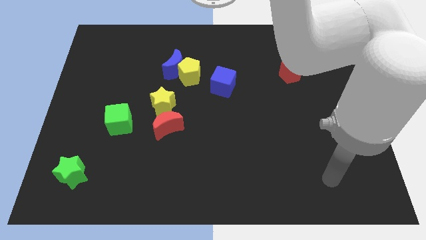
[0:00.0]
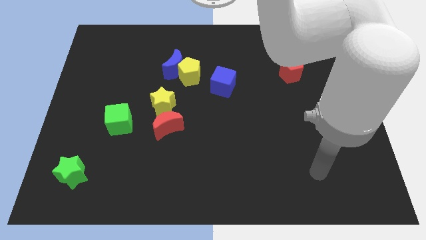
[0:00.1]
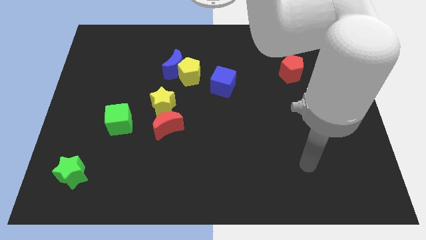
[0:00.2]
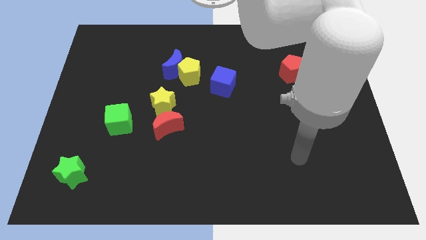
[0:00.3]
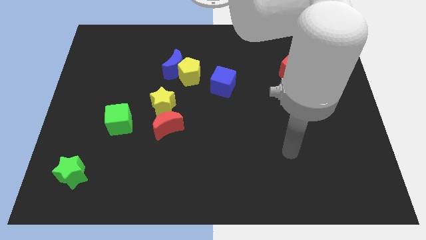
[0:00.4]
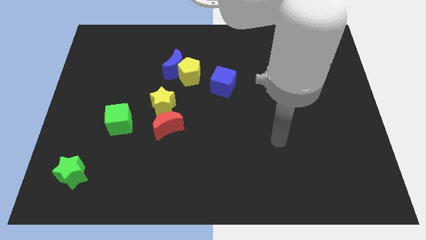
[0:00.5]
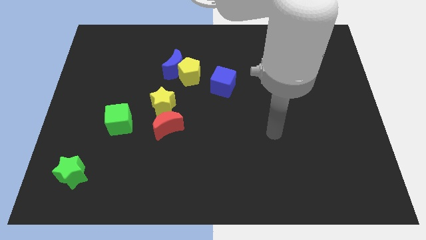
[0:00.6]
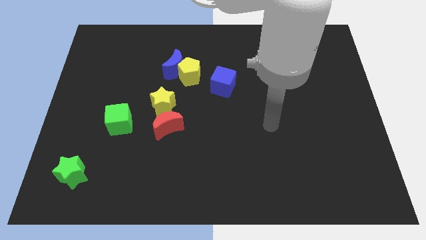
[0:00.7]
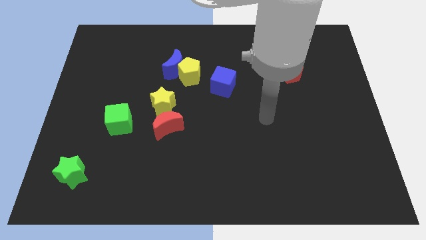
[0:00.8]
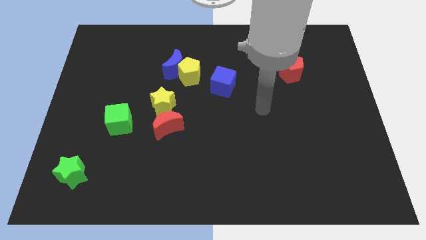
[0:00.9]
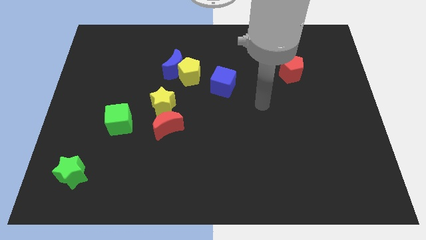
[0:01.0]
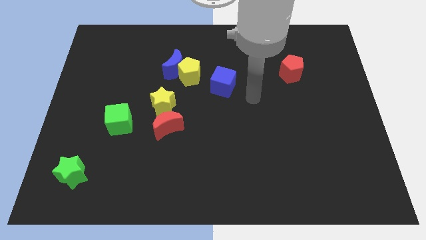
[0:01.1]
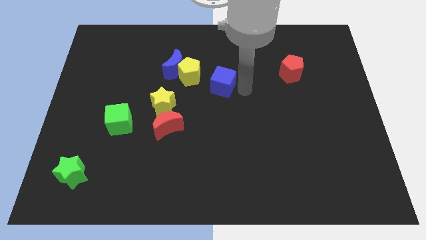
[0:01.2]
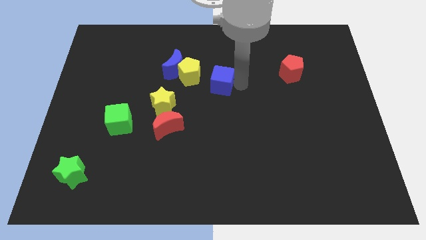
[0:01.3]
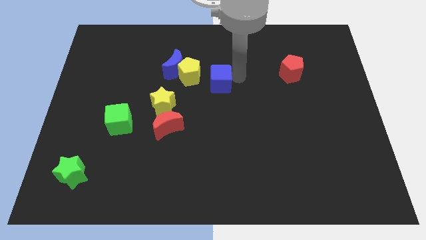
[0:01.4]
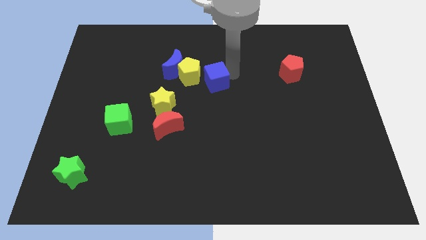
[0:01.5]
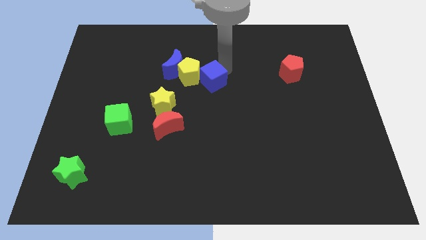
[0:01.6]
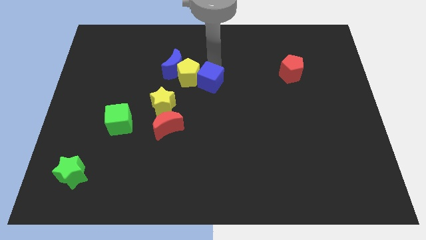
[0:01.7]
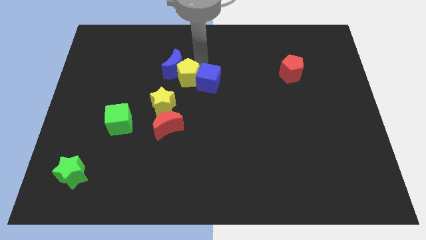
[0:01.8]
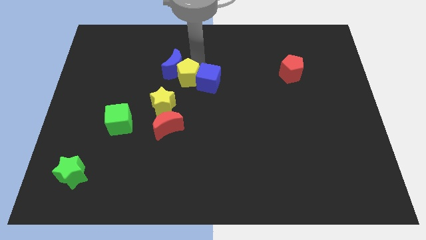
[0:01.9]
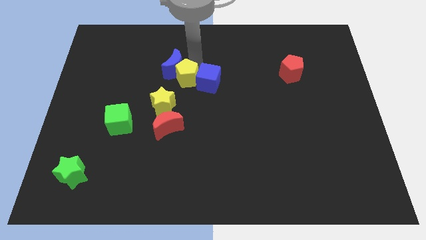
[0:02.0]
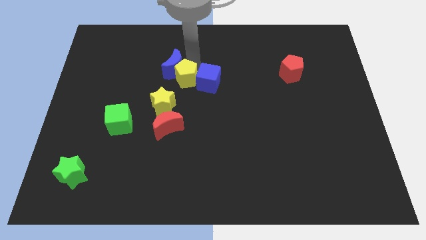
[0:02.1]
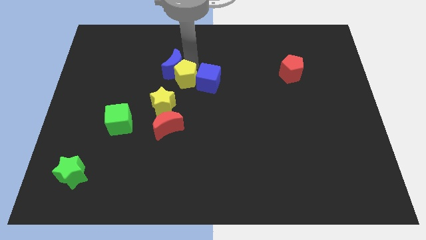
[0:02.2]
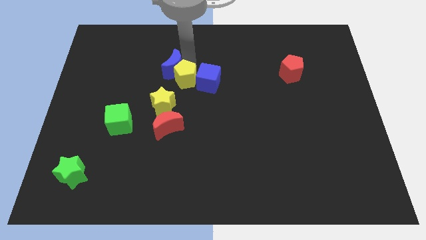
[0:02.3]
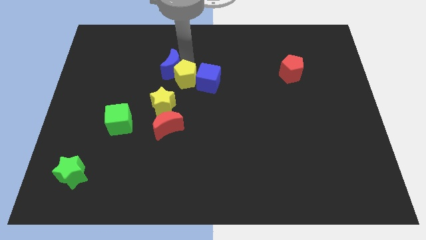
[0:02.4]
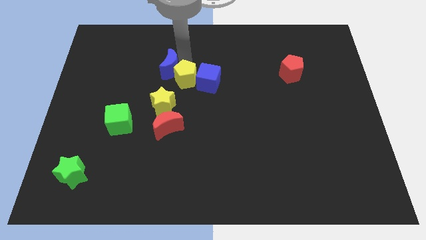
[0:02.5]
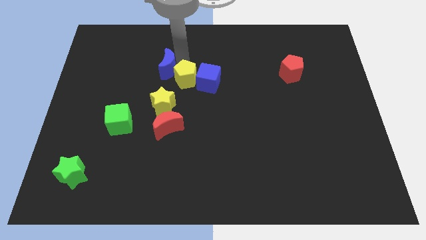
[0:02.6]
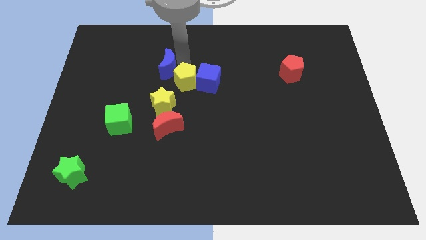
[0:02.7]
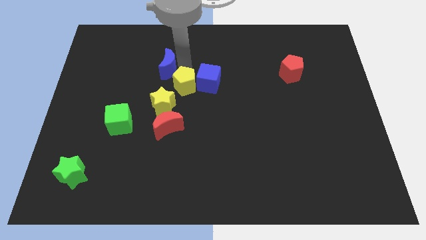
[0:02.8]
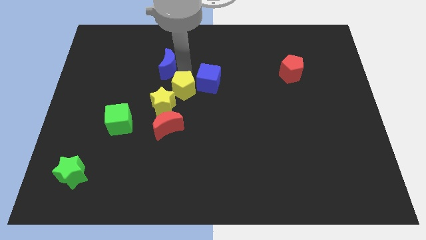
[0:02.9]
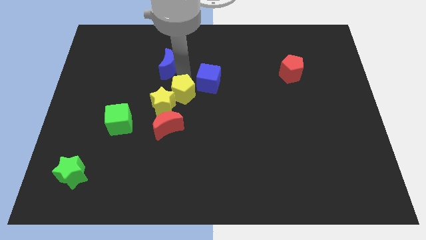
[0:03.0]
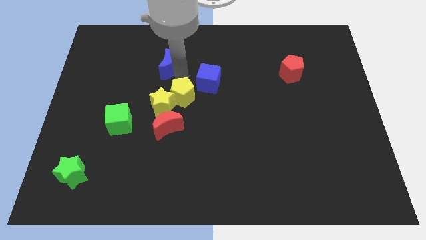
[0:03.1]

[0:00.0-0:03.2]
separate the blue moon from the yellow pentagon

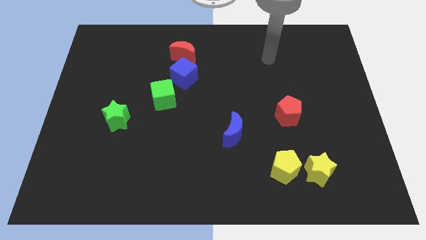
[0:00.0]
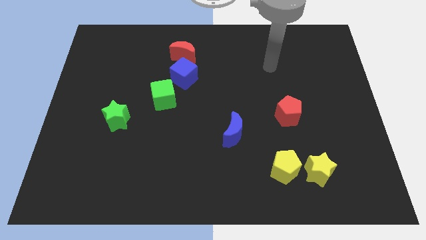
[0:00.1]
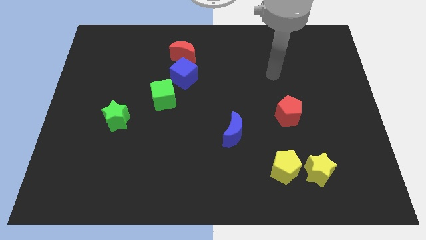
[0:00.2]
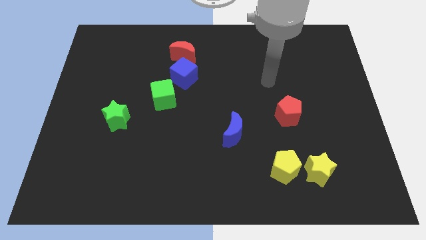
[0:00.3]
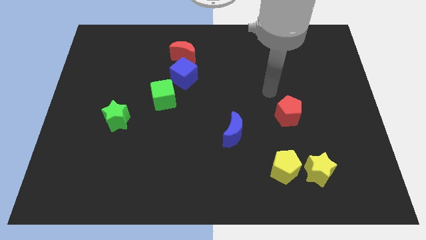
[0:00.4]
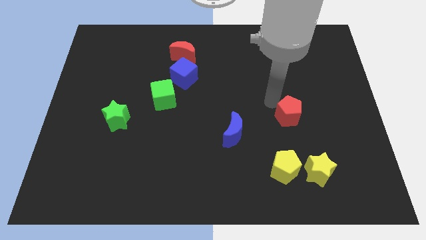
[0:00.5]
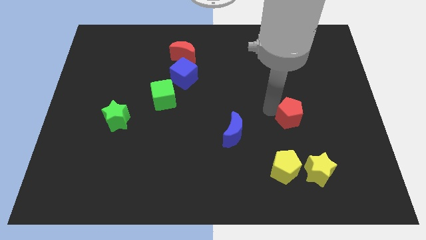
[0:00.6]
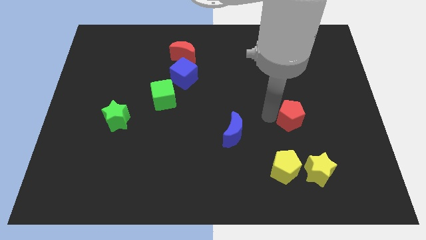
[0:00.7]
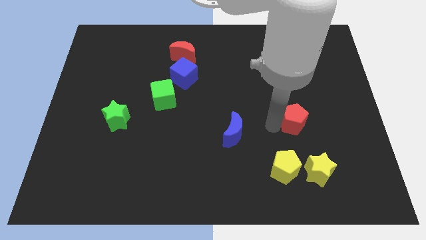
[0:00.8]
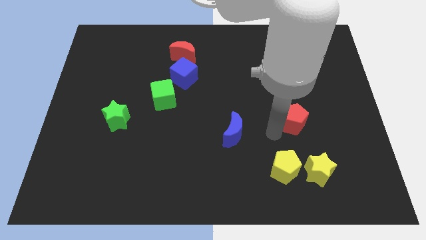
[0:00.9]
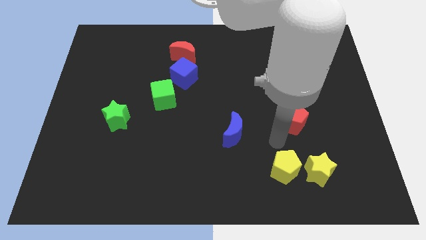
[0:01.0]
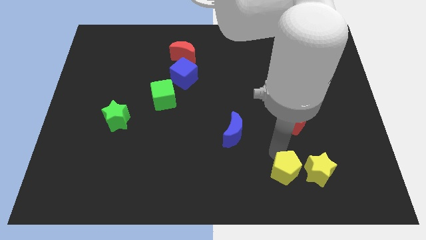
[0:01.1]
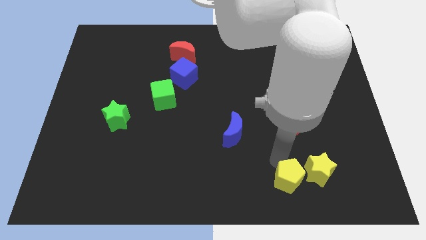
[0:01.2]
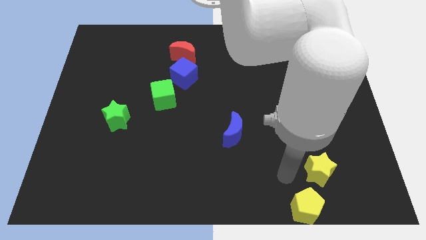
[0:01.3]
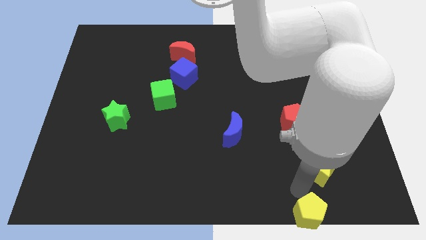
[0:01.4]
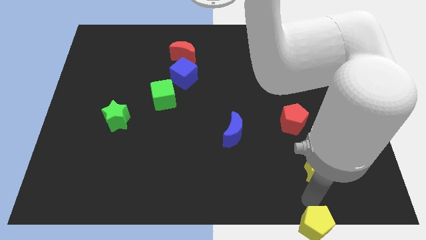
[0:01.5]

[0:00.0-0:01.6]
pull the yellow star apart from the yellow pentagon

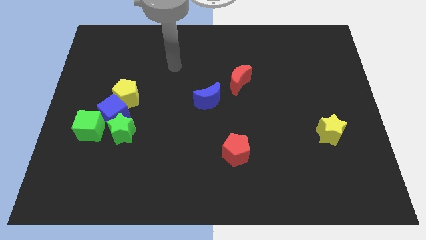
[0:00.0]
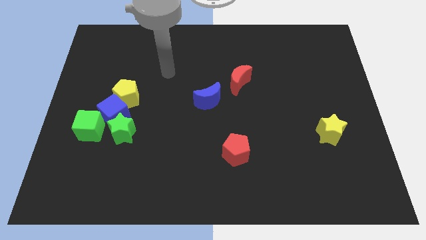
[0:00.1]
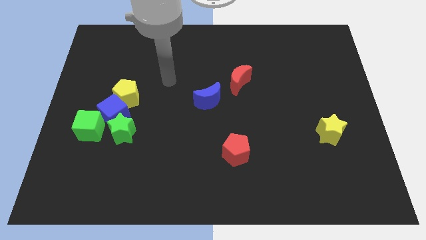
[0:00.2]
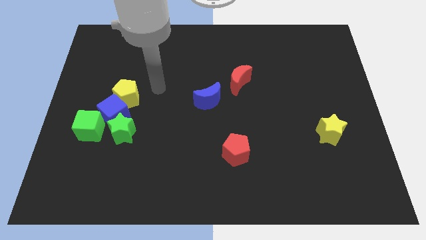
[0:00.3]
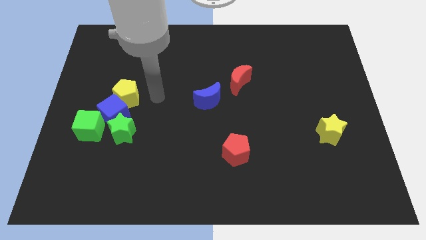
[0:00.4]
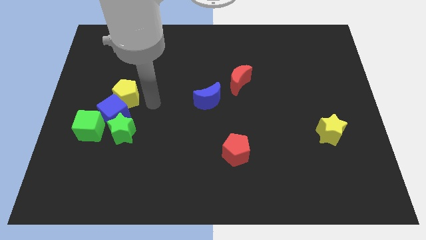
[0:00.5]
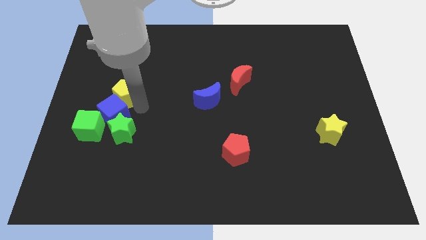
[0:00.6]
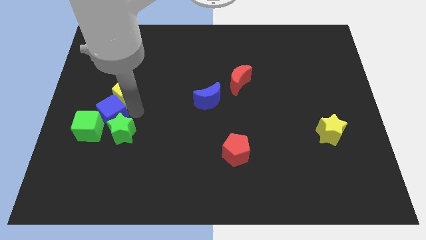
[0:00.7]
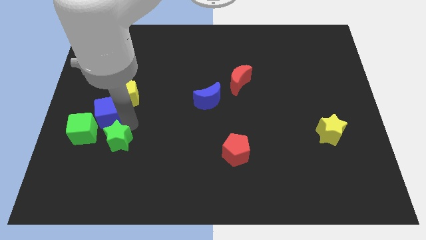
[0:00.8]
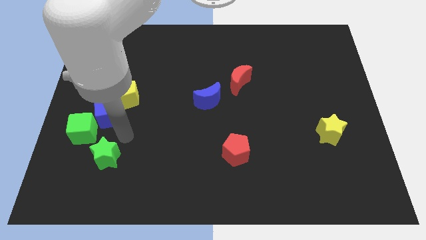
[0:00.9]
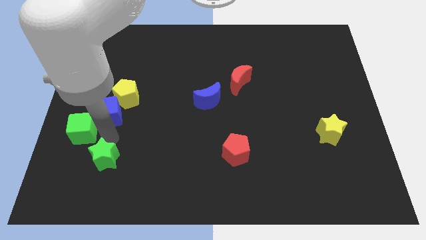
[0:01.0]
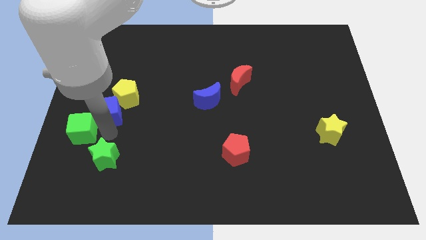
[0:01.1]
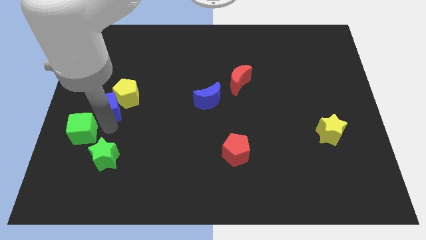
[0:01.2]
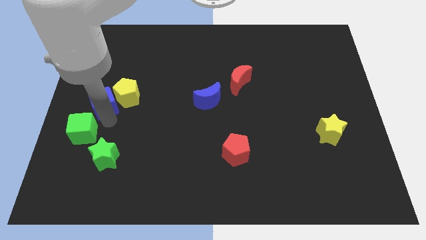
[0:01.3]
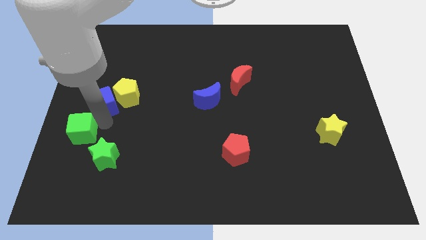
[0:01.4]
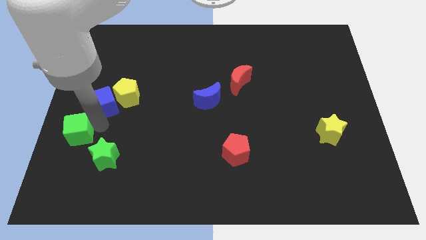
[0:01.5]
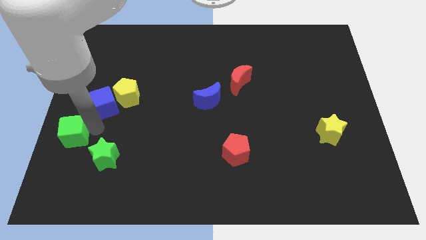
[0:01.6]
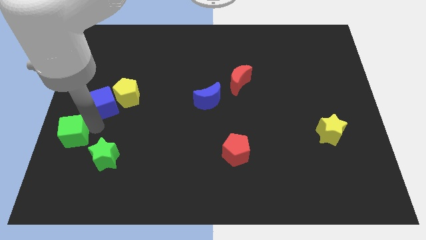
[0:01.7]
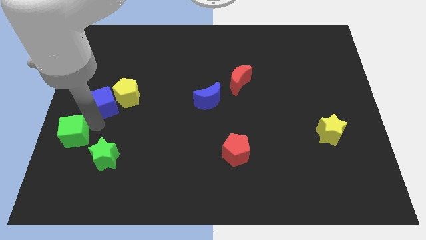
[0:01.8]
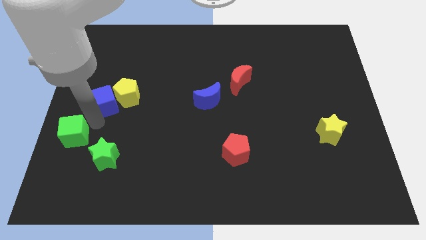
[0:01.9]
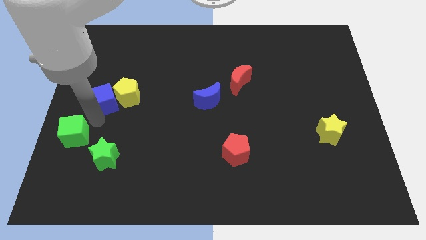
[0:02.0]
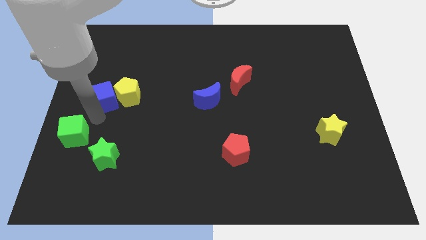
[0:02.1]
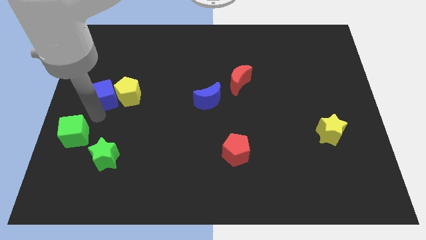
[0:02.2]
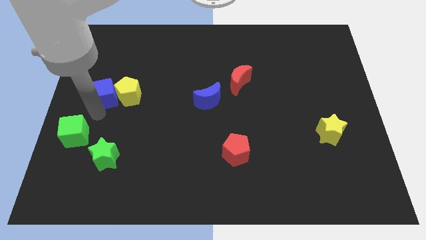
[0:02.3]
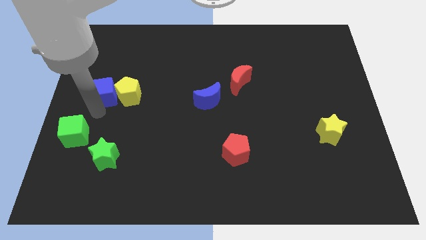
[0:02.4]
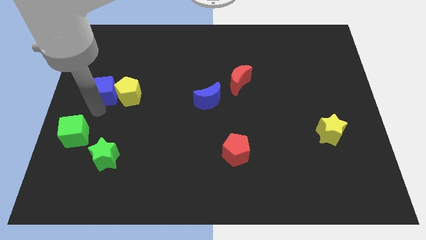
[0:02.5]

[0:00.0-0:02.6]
separate the blue cube from the green star, yellow pentagon, and green cube

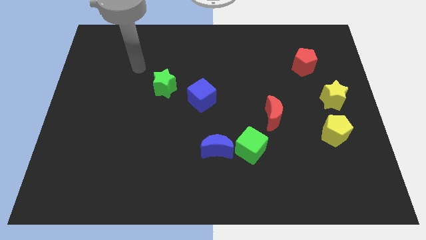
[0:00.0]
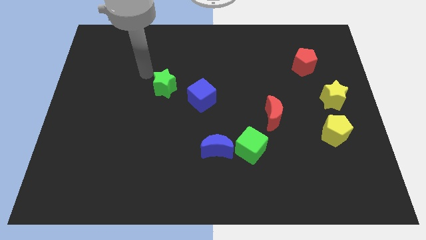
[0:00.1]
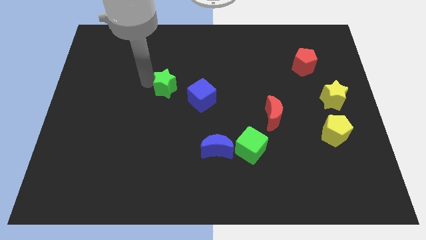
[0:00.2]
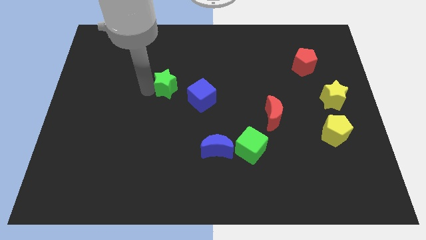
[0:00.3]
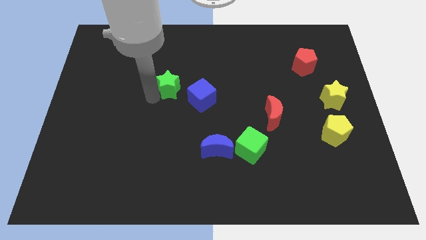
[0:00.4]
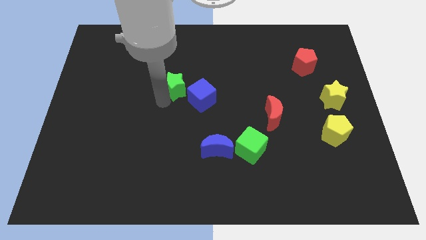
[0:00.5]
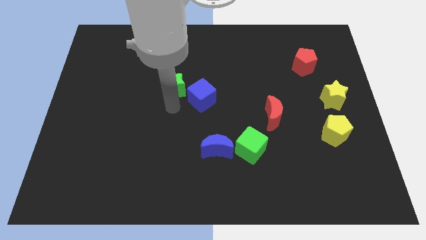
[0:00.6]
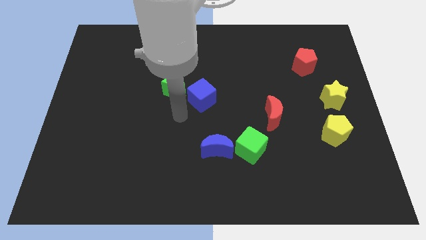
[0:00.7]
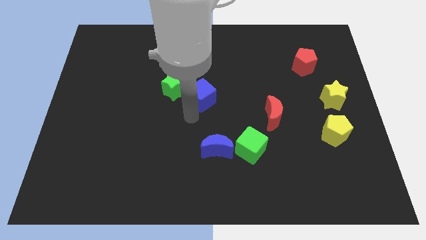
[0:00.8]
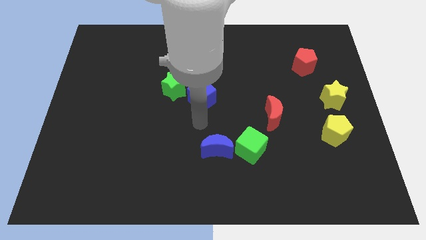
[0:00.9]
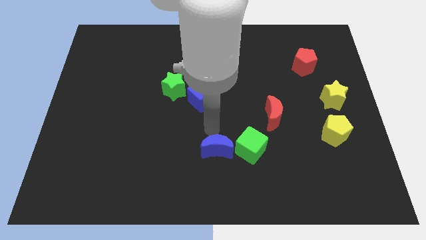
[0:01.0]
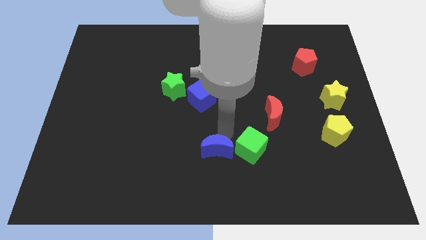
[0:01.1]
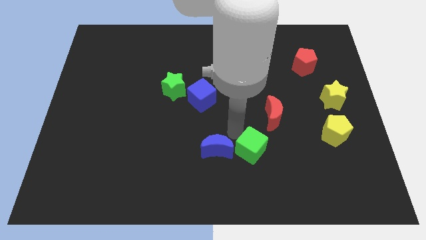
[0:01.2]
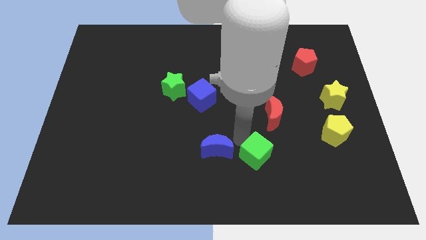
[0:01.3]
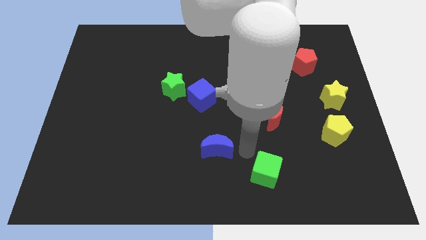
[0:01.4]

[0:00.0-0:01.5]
move the blue moon away from the green cube

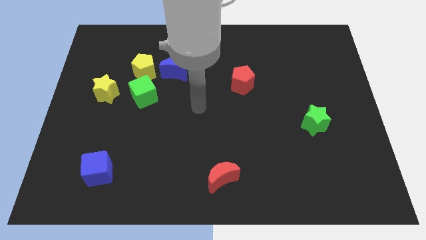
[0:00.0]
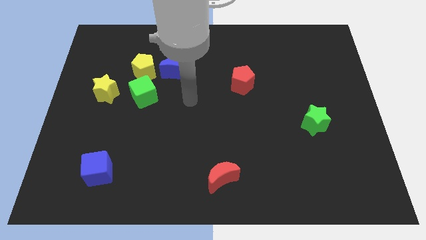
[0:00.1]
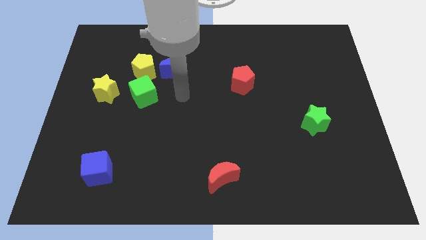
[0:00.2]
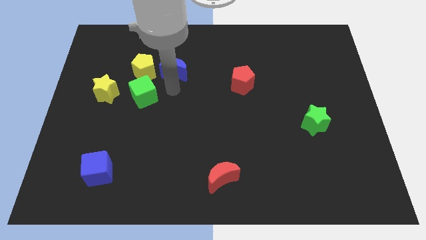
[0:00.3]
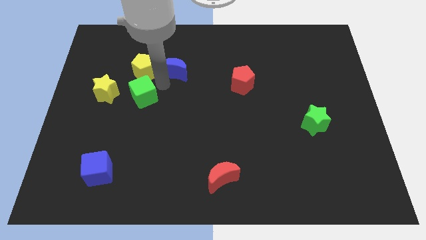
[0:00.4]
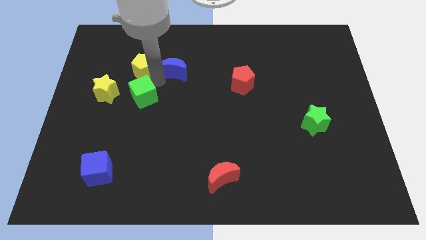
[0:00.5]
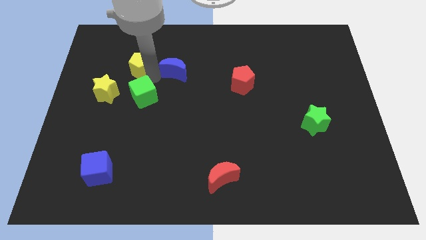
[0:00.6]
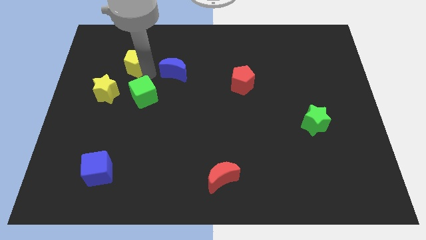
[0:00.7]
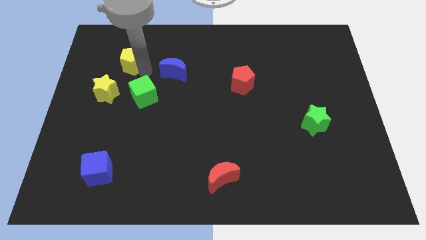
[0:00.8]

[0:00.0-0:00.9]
move the yellow pentagon away from the blue moon and green cube
